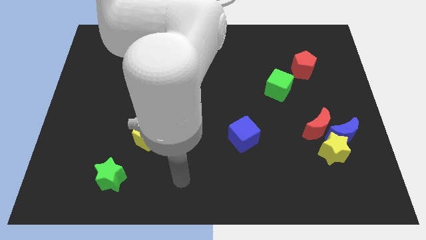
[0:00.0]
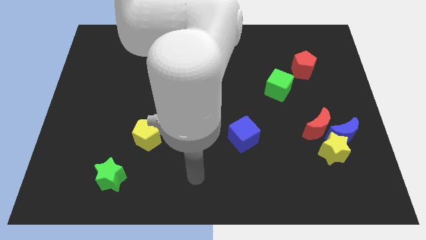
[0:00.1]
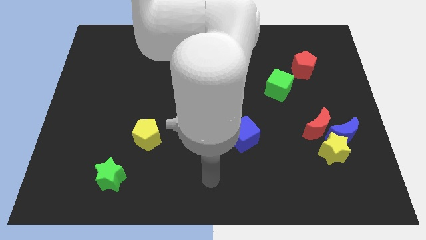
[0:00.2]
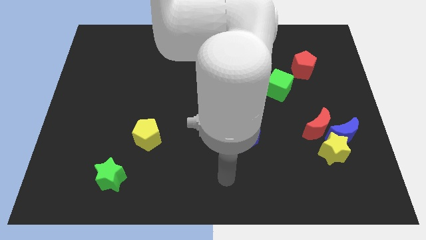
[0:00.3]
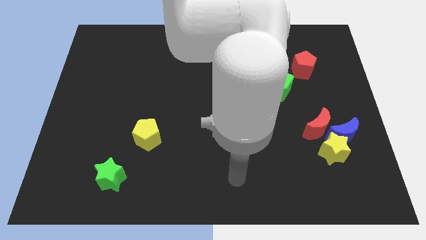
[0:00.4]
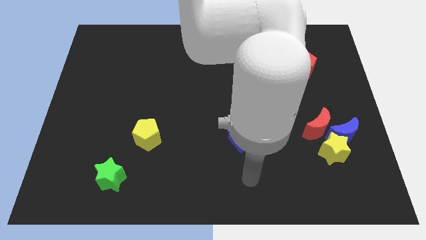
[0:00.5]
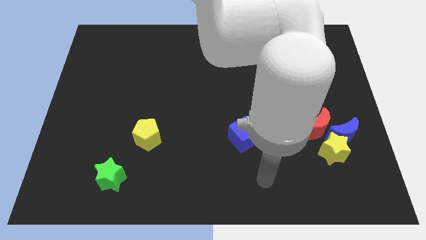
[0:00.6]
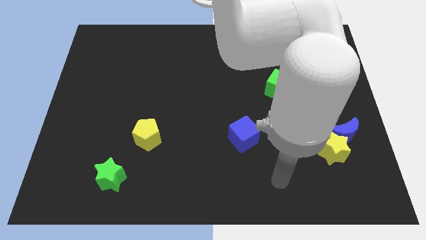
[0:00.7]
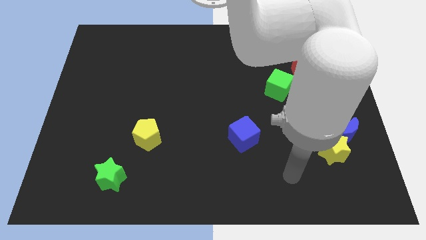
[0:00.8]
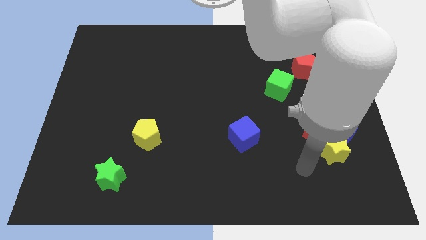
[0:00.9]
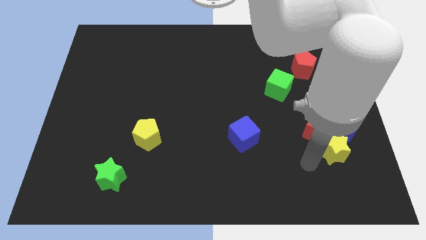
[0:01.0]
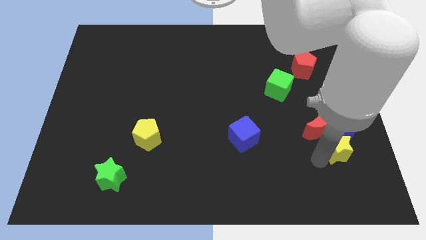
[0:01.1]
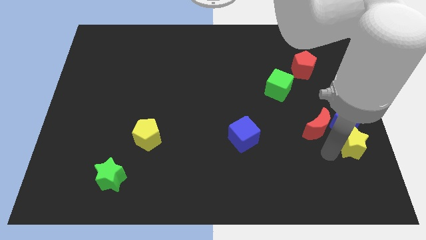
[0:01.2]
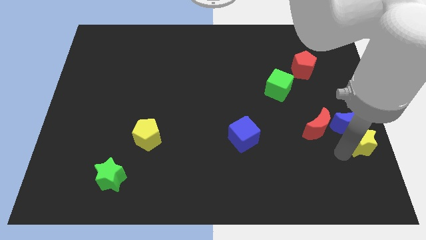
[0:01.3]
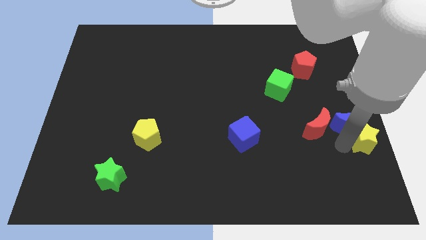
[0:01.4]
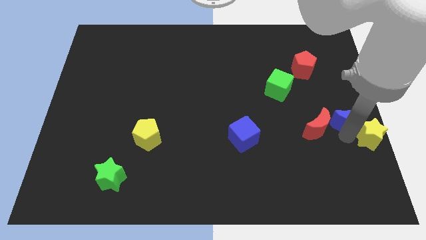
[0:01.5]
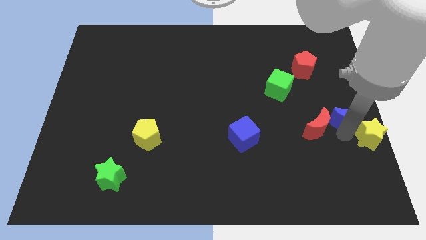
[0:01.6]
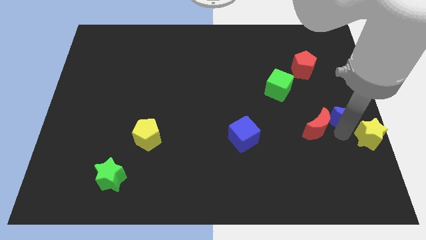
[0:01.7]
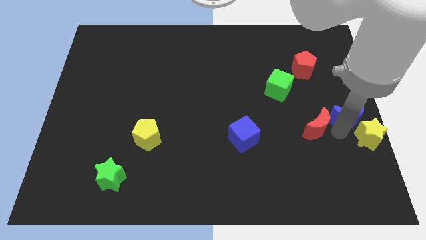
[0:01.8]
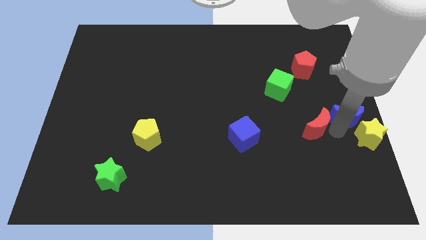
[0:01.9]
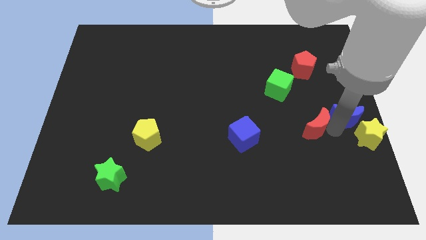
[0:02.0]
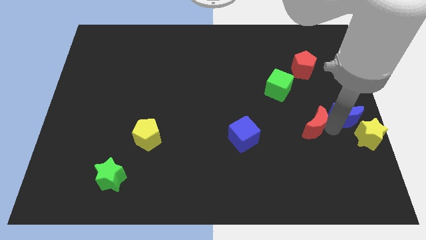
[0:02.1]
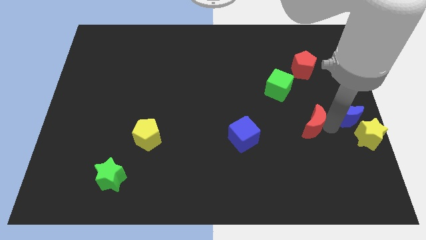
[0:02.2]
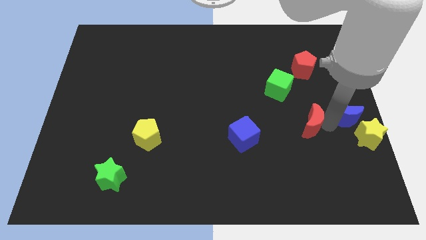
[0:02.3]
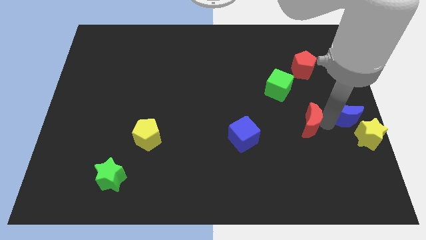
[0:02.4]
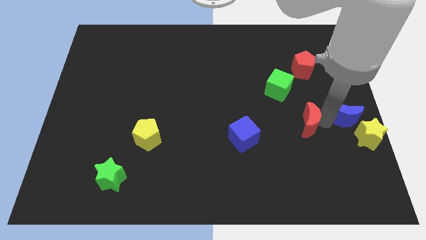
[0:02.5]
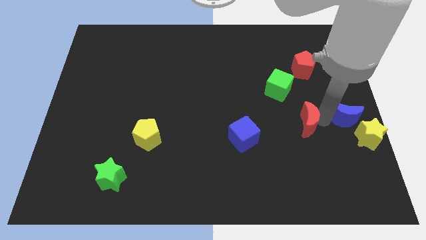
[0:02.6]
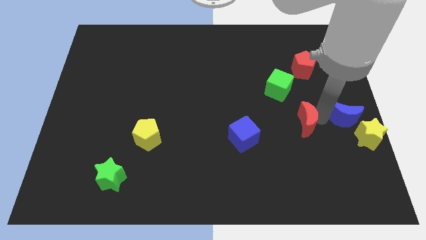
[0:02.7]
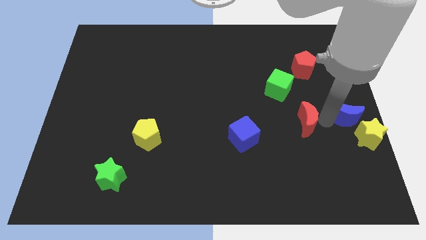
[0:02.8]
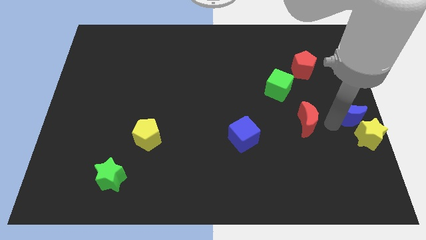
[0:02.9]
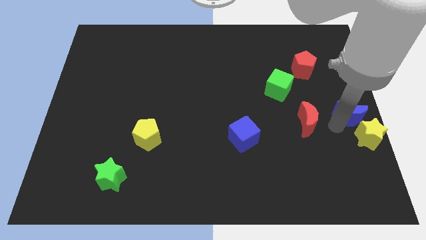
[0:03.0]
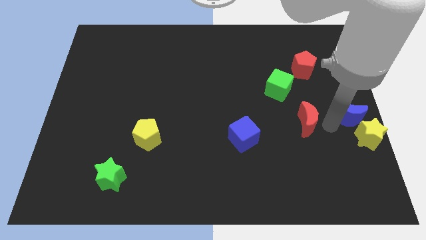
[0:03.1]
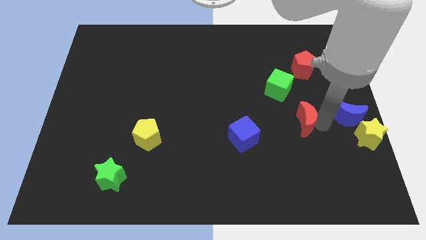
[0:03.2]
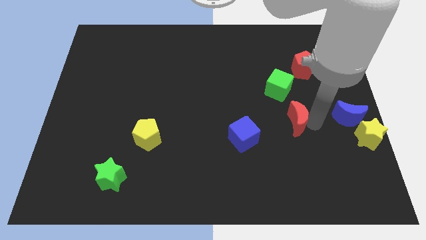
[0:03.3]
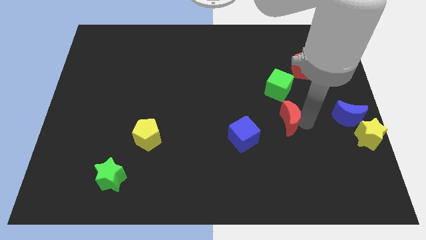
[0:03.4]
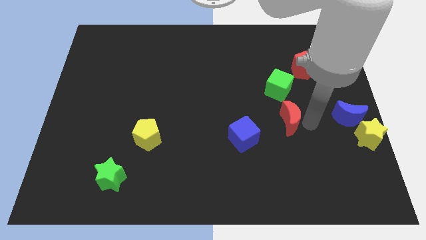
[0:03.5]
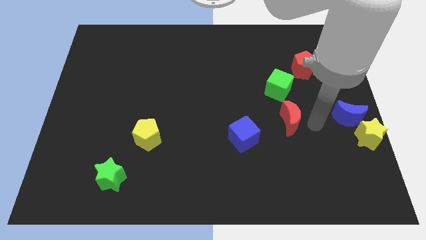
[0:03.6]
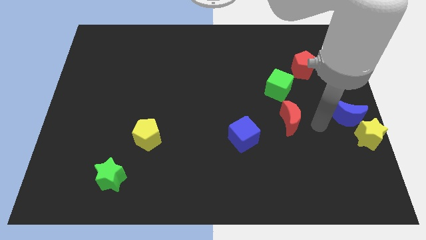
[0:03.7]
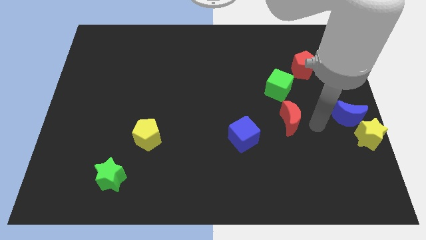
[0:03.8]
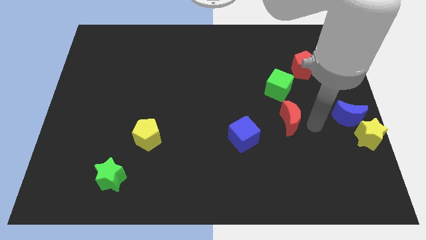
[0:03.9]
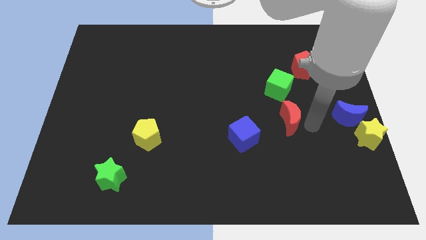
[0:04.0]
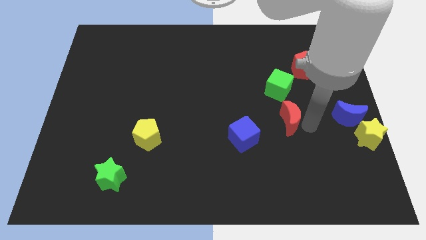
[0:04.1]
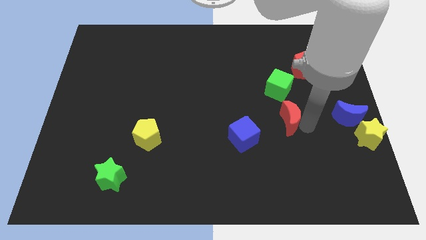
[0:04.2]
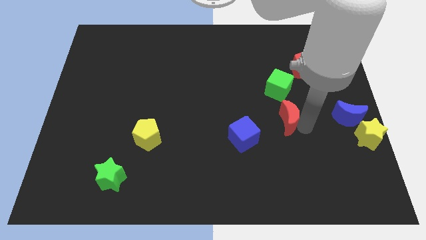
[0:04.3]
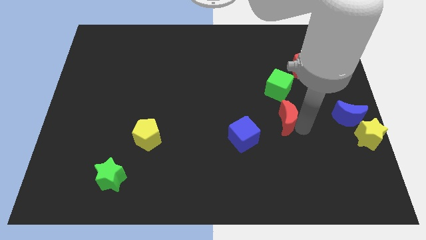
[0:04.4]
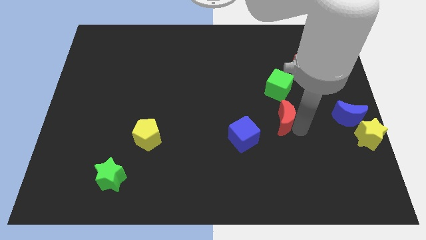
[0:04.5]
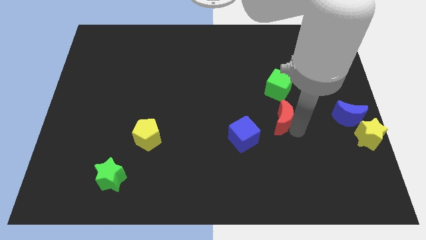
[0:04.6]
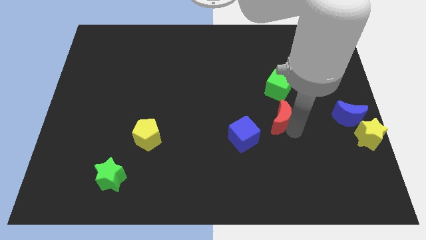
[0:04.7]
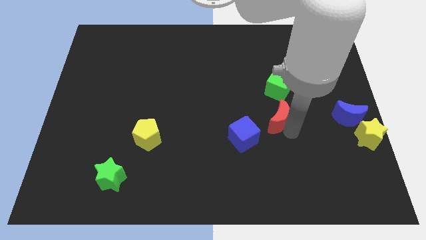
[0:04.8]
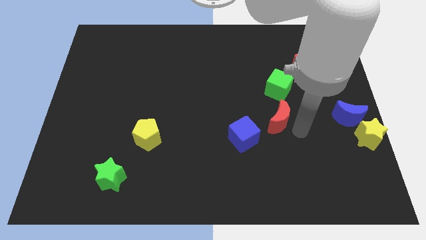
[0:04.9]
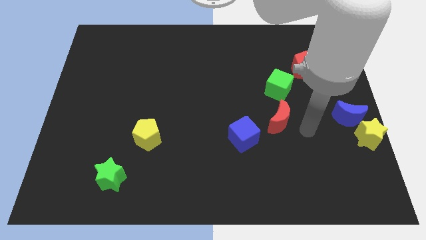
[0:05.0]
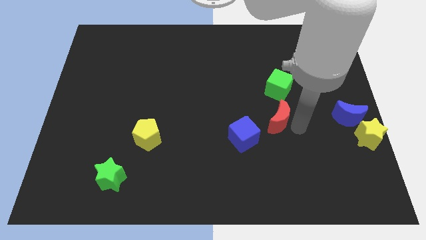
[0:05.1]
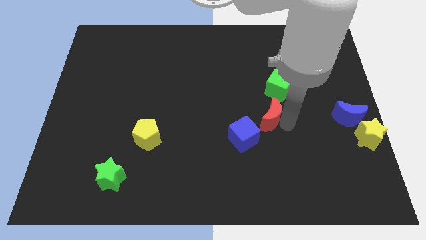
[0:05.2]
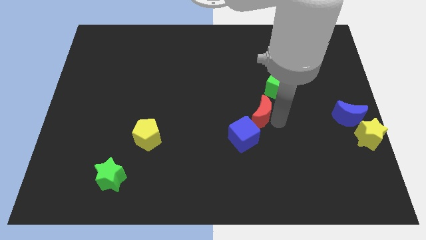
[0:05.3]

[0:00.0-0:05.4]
slide the red moon to the center
